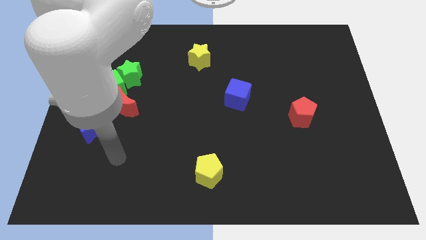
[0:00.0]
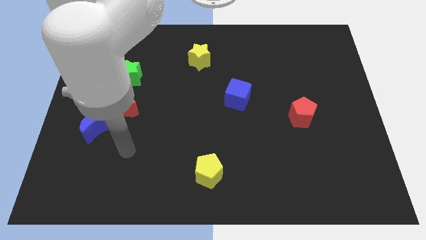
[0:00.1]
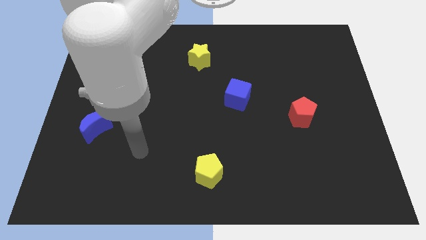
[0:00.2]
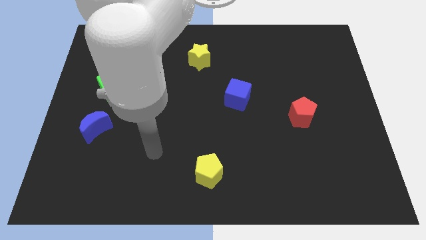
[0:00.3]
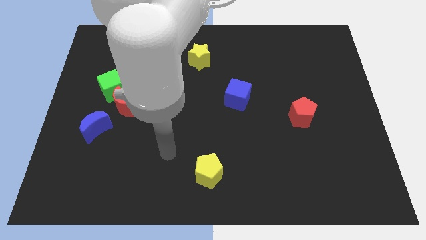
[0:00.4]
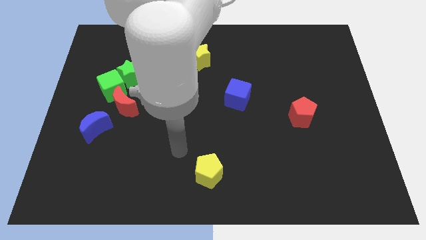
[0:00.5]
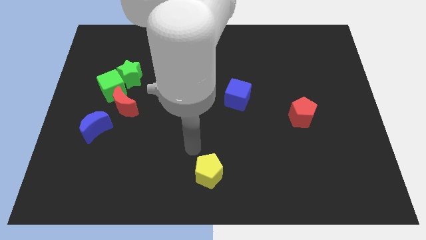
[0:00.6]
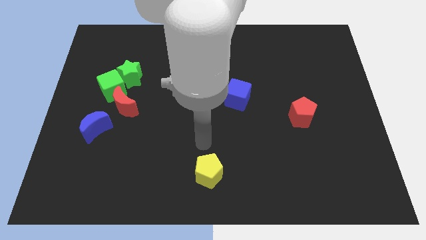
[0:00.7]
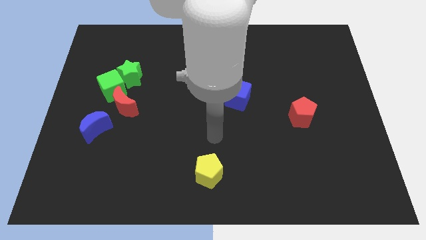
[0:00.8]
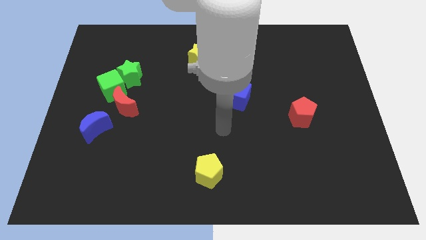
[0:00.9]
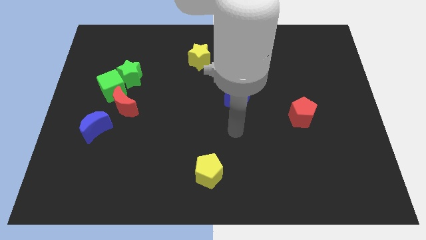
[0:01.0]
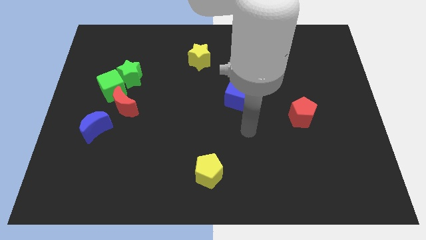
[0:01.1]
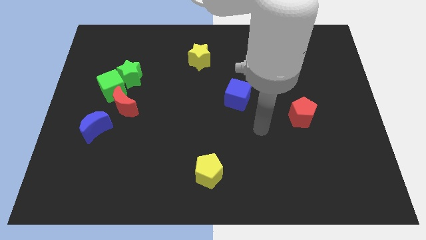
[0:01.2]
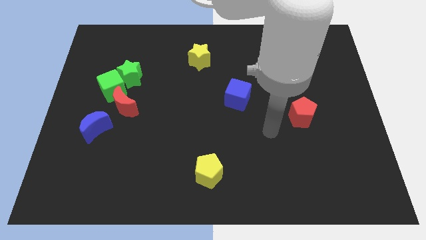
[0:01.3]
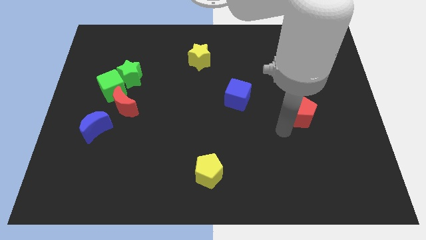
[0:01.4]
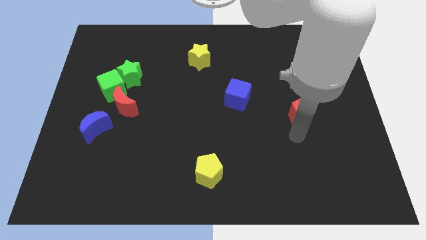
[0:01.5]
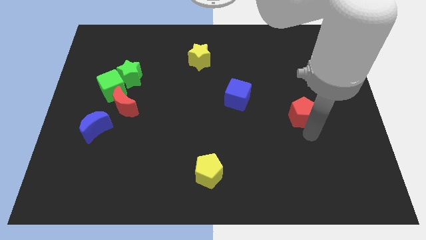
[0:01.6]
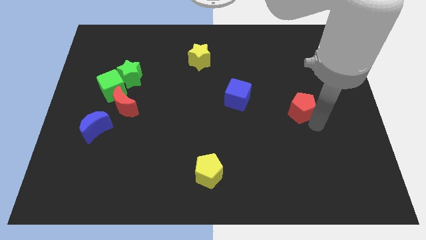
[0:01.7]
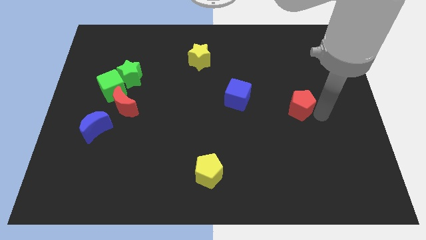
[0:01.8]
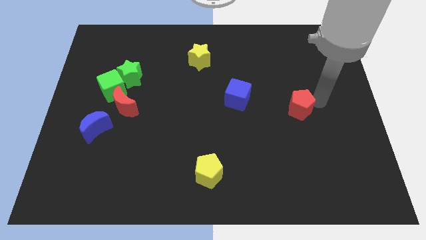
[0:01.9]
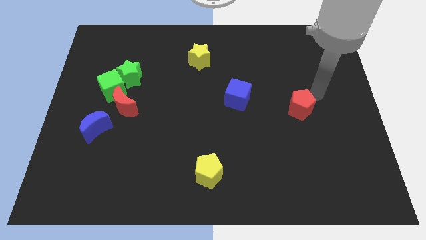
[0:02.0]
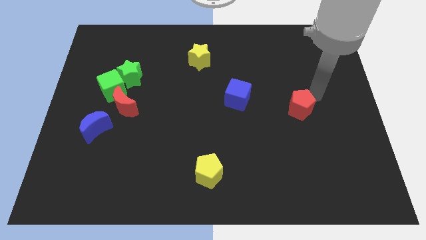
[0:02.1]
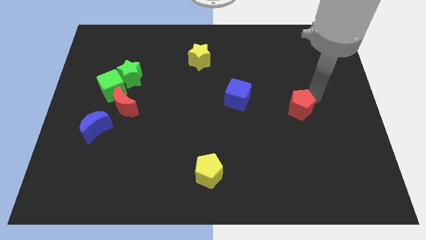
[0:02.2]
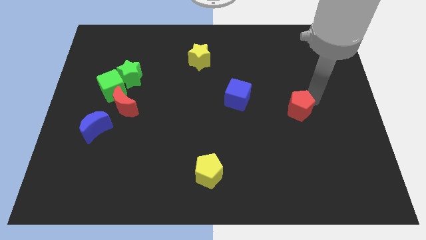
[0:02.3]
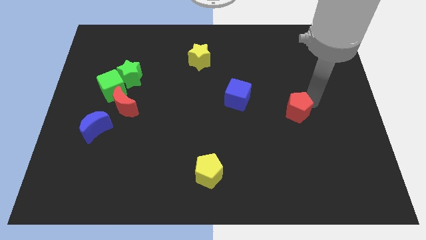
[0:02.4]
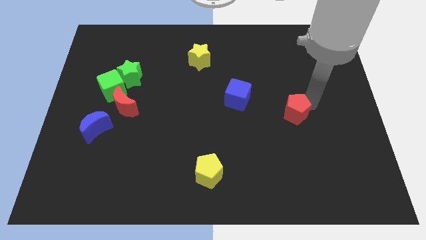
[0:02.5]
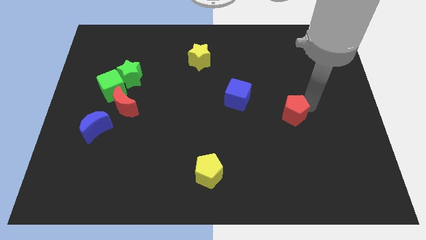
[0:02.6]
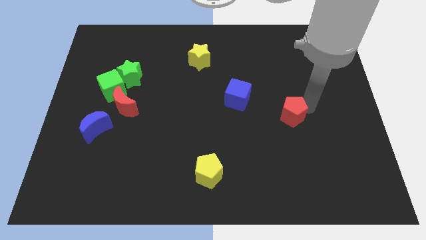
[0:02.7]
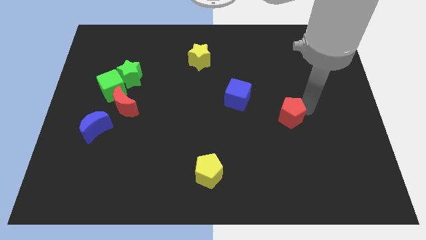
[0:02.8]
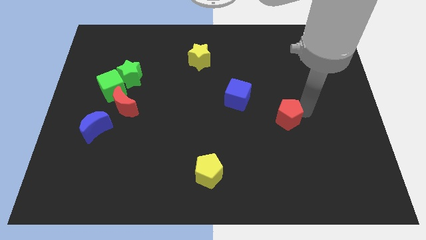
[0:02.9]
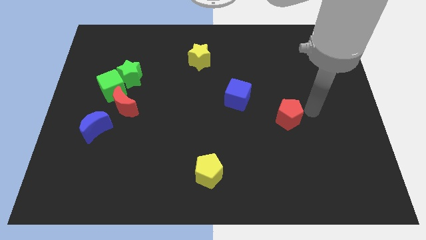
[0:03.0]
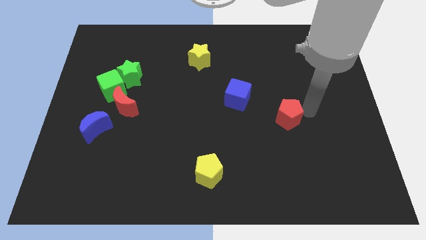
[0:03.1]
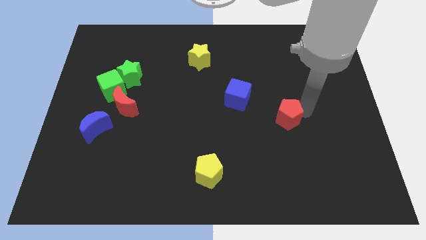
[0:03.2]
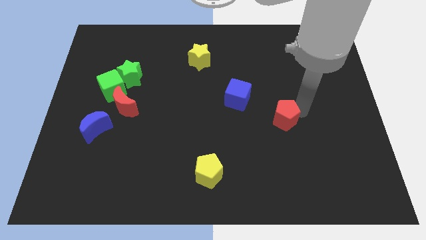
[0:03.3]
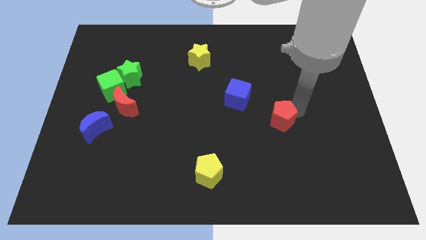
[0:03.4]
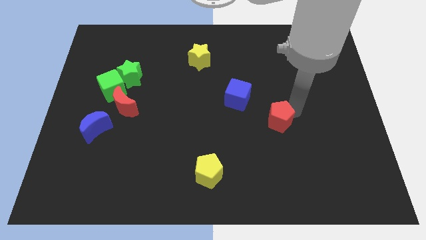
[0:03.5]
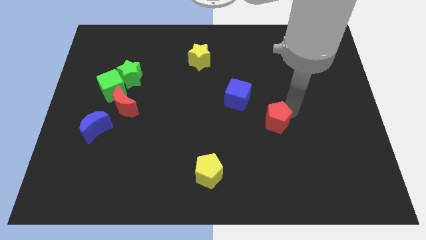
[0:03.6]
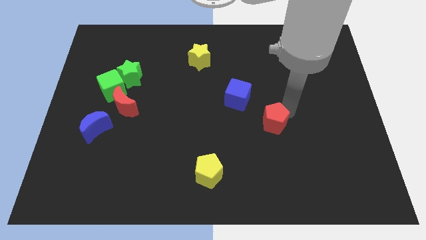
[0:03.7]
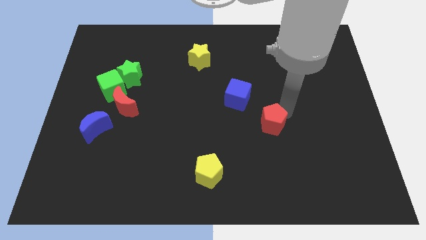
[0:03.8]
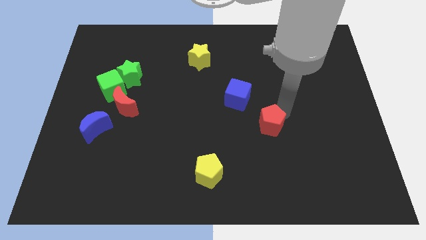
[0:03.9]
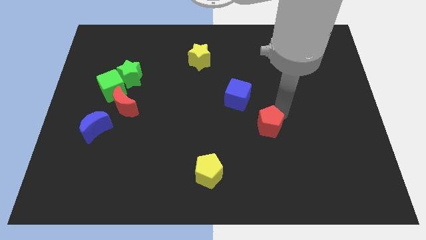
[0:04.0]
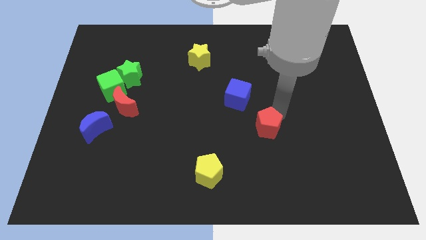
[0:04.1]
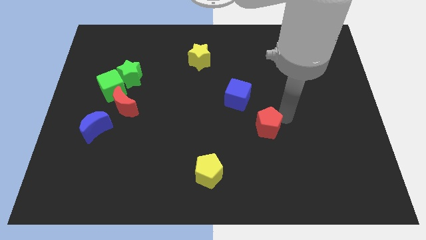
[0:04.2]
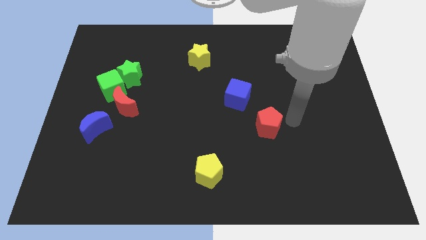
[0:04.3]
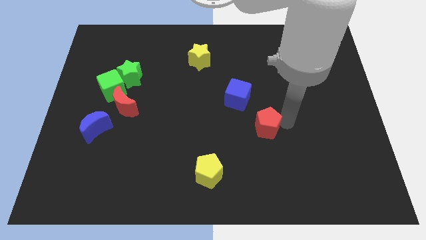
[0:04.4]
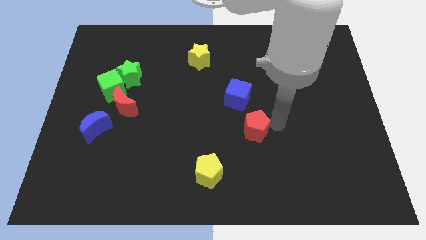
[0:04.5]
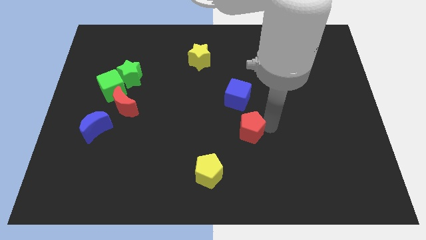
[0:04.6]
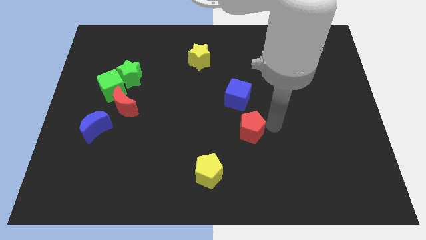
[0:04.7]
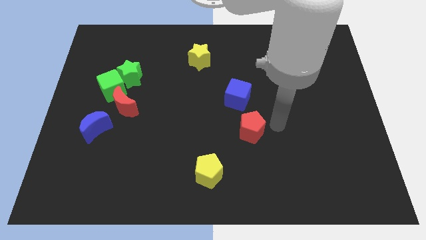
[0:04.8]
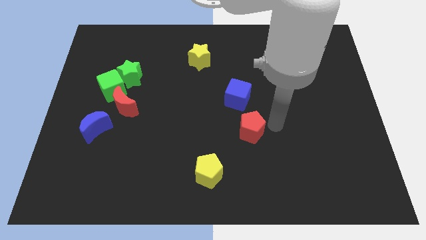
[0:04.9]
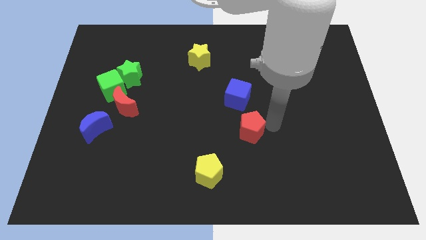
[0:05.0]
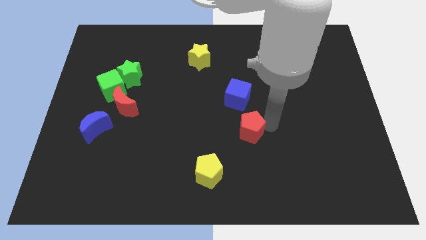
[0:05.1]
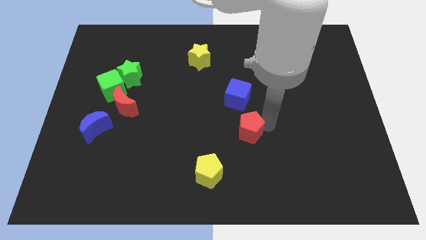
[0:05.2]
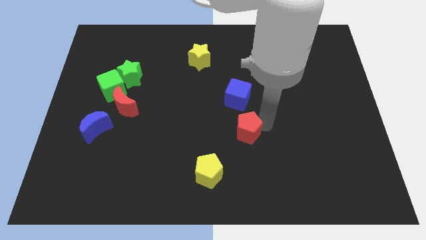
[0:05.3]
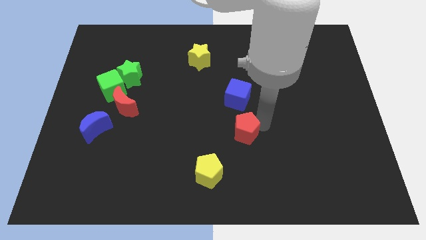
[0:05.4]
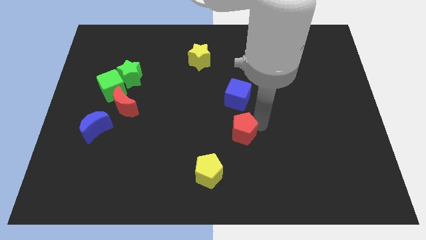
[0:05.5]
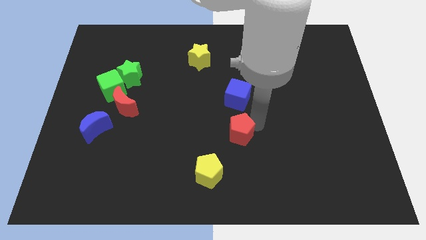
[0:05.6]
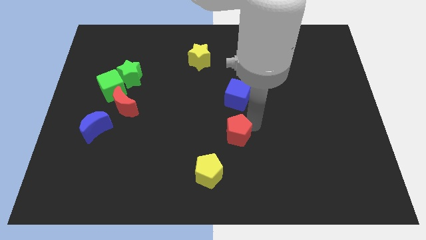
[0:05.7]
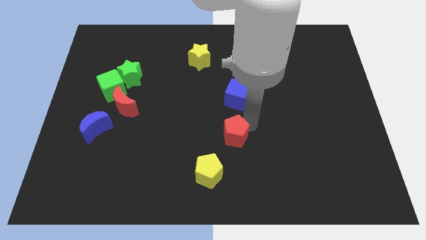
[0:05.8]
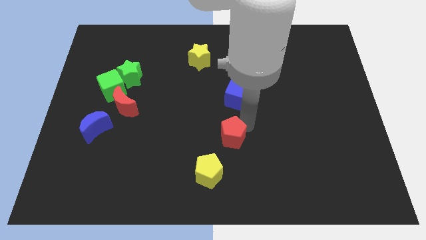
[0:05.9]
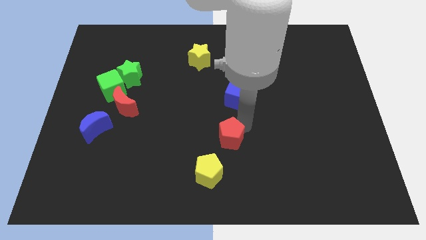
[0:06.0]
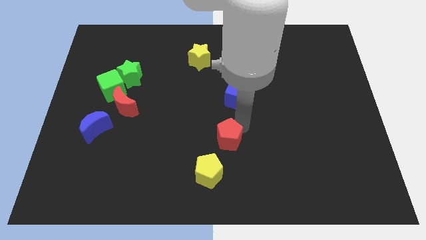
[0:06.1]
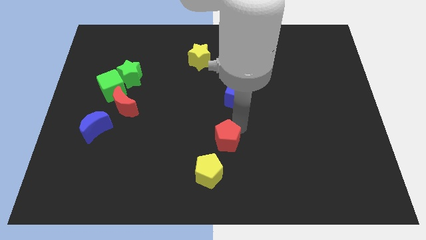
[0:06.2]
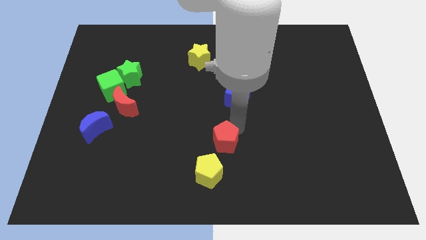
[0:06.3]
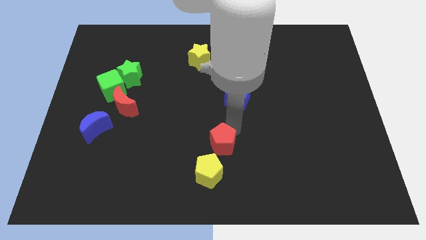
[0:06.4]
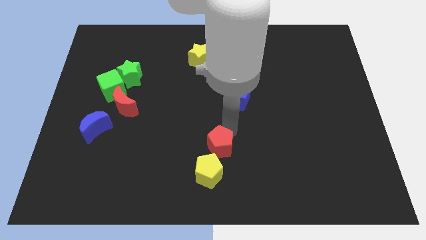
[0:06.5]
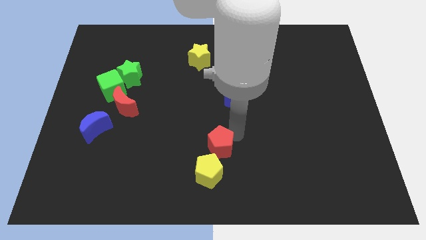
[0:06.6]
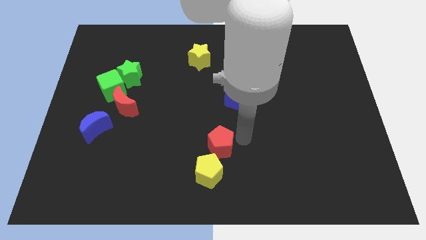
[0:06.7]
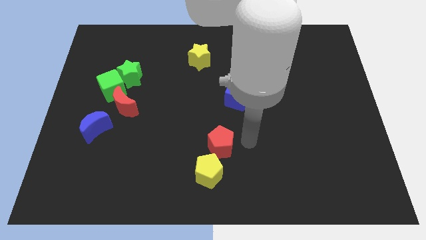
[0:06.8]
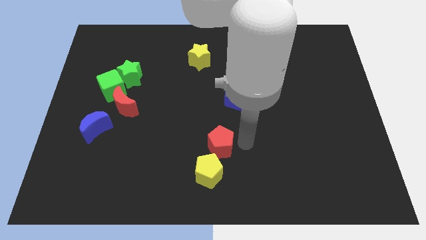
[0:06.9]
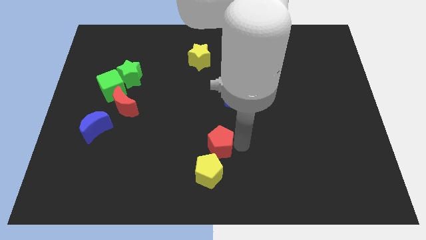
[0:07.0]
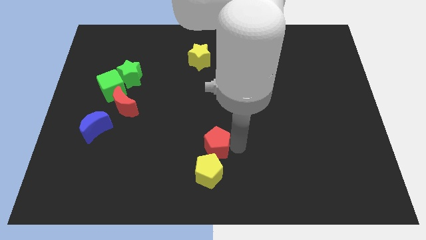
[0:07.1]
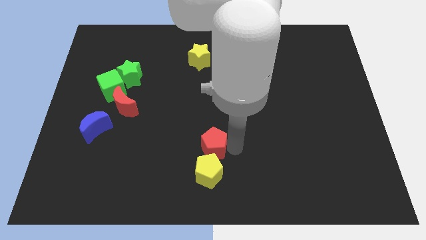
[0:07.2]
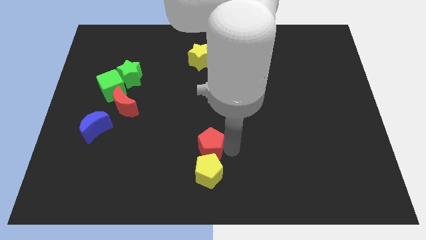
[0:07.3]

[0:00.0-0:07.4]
push the red pentagon to the top left side of the yellow pentagon
